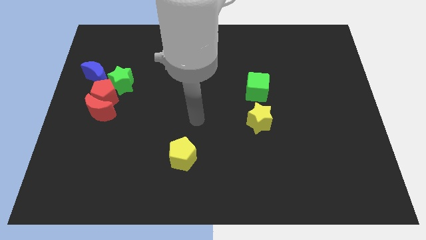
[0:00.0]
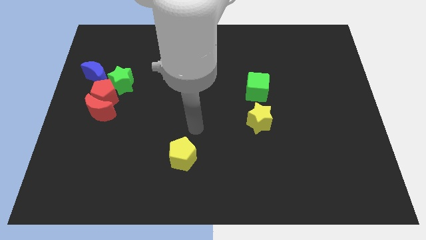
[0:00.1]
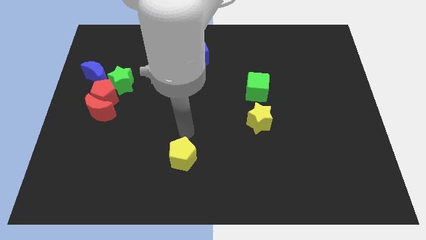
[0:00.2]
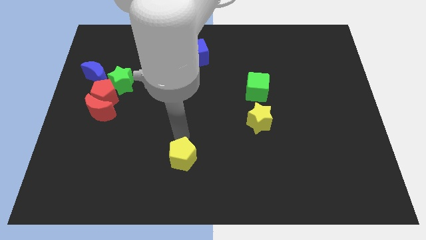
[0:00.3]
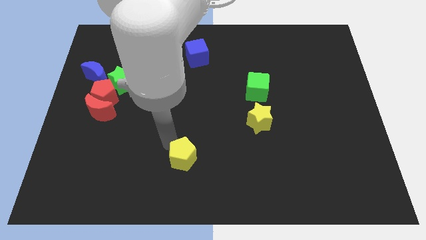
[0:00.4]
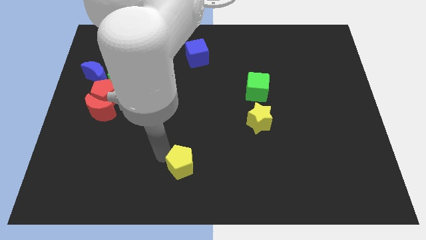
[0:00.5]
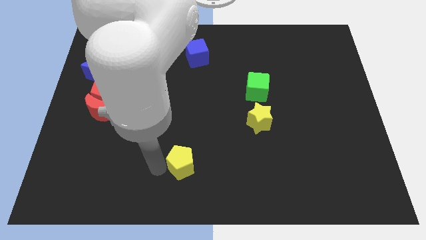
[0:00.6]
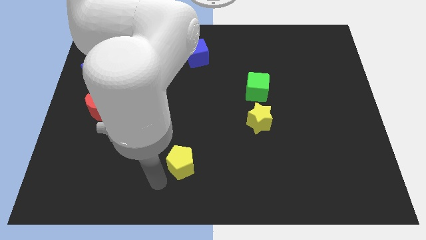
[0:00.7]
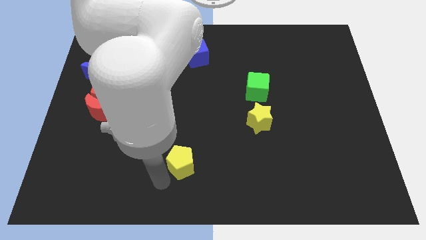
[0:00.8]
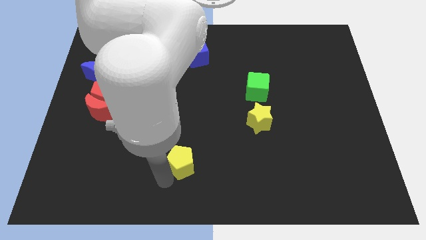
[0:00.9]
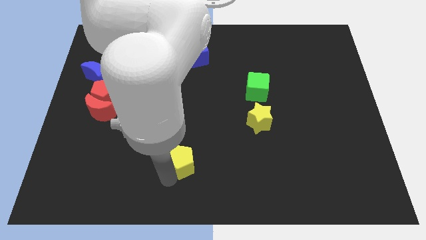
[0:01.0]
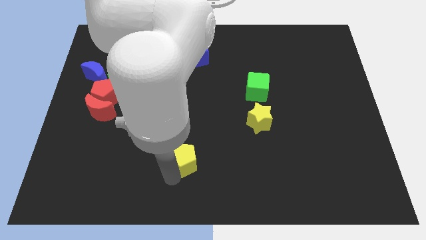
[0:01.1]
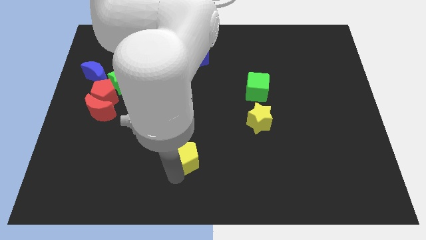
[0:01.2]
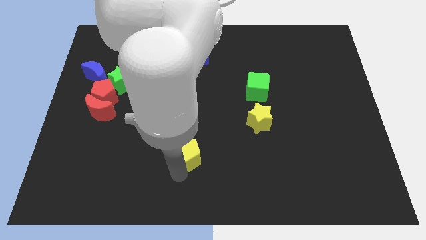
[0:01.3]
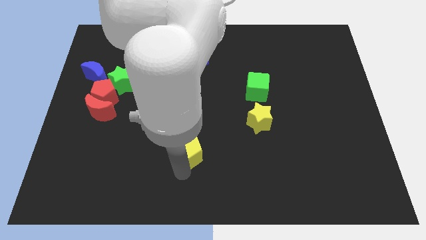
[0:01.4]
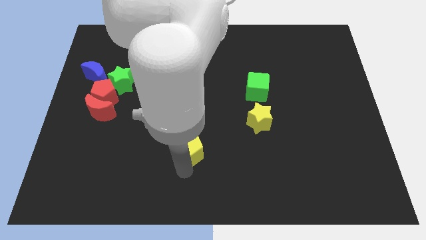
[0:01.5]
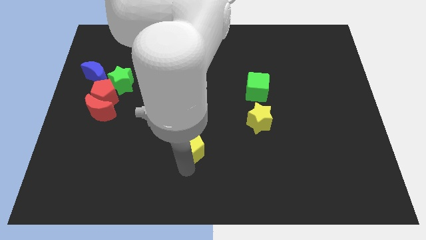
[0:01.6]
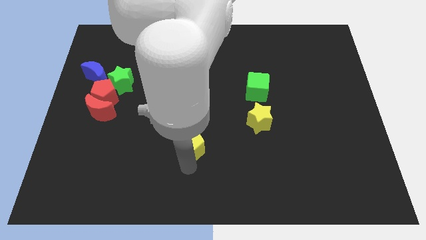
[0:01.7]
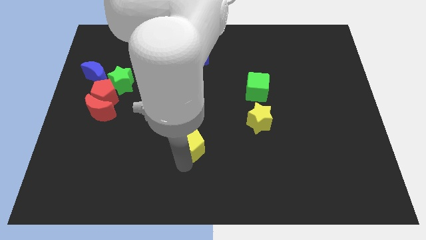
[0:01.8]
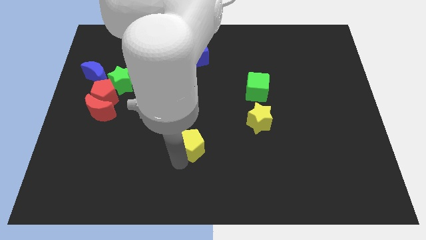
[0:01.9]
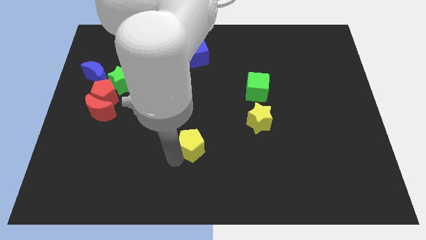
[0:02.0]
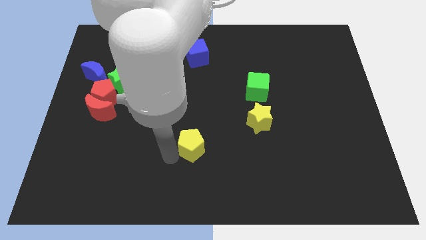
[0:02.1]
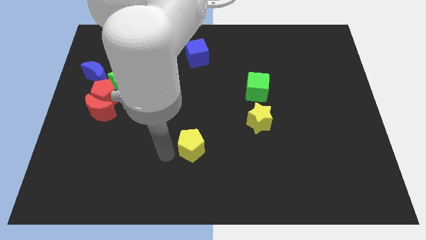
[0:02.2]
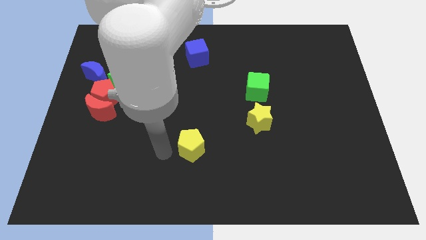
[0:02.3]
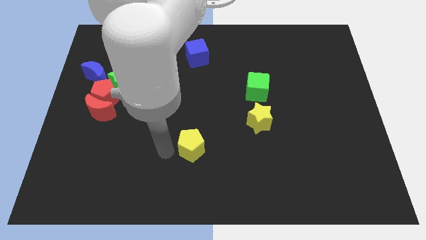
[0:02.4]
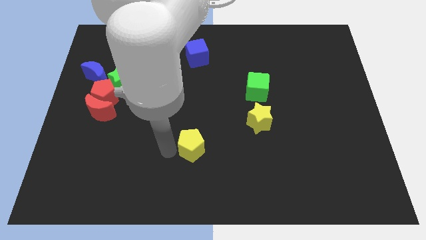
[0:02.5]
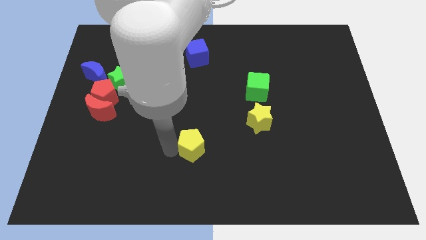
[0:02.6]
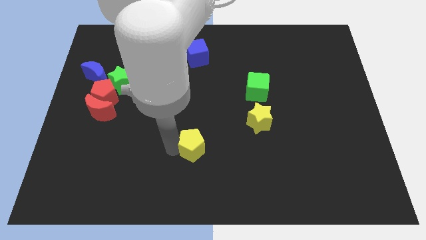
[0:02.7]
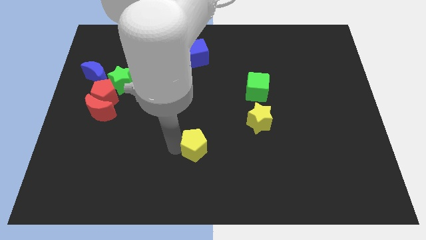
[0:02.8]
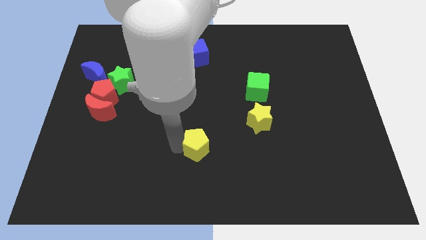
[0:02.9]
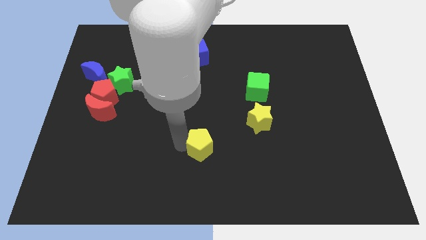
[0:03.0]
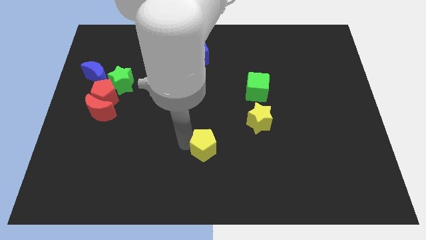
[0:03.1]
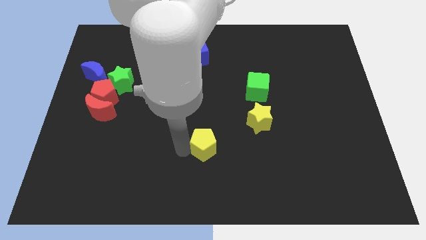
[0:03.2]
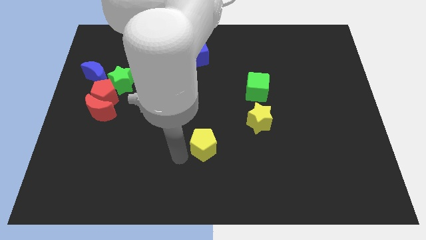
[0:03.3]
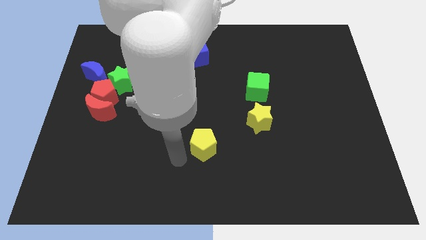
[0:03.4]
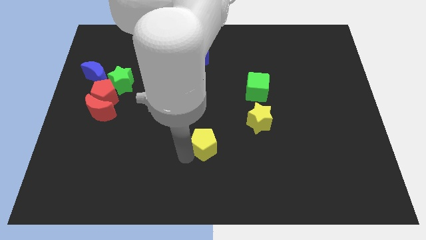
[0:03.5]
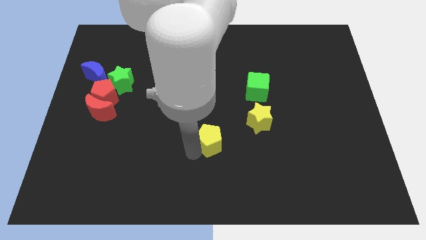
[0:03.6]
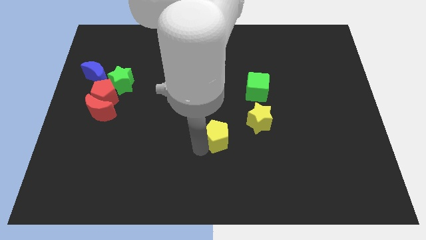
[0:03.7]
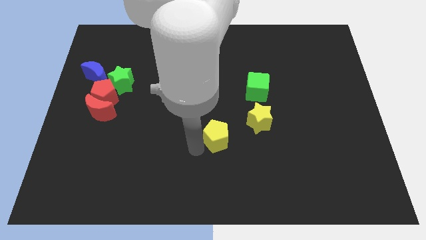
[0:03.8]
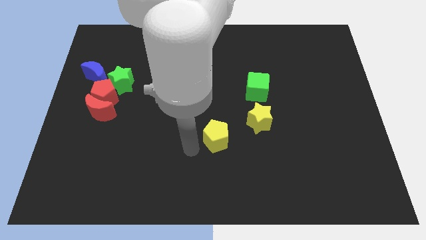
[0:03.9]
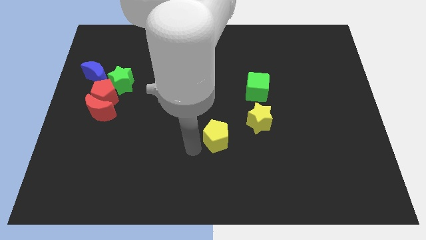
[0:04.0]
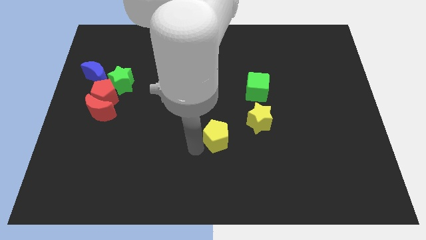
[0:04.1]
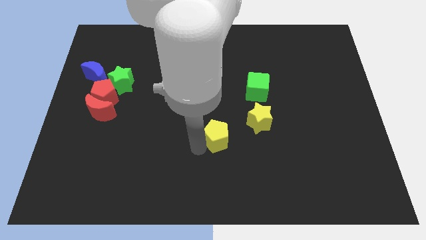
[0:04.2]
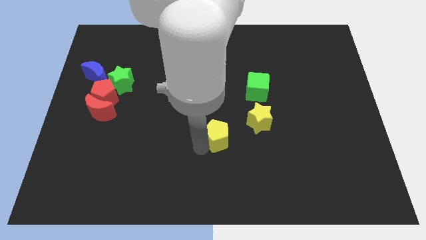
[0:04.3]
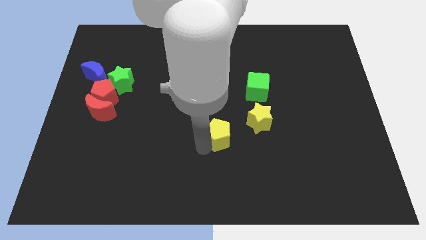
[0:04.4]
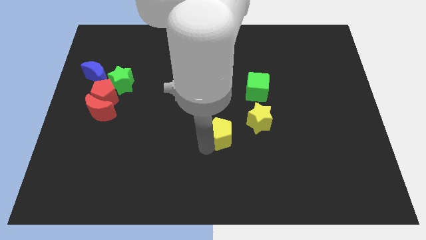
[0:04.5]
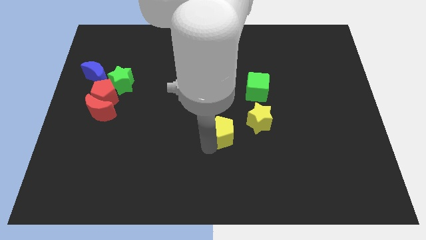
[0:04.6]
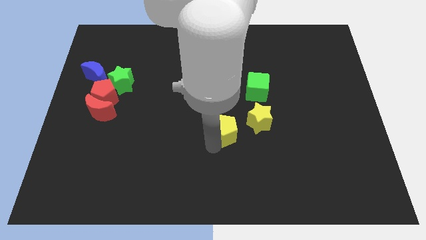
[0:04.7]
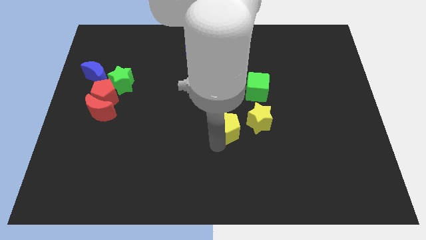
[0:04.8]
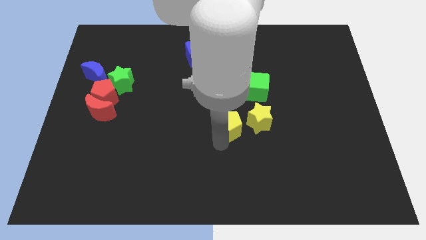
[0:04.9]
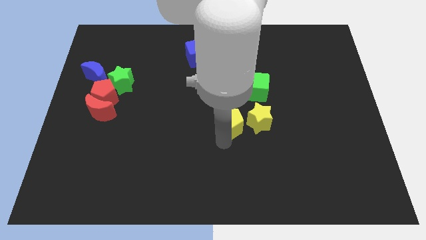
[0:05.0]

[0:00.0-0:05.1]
push the yellow pentagon close to the yellow star

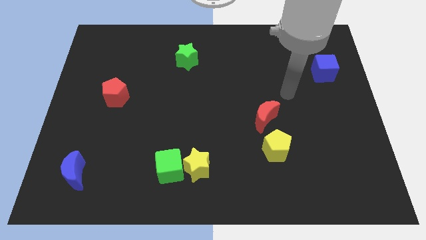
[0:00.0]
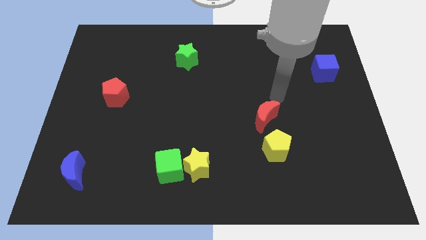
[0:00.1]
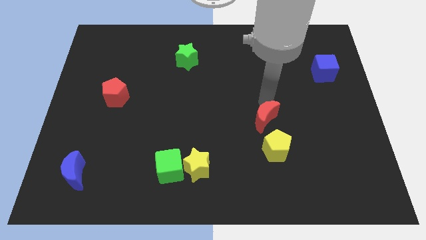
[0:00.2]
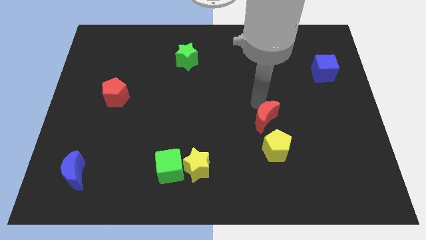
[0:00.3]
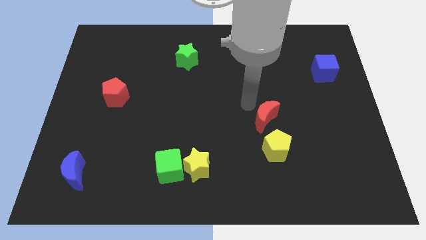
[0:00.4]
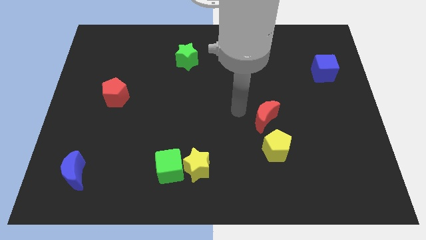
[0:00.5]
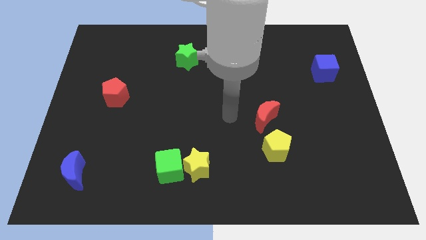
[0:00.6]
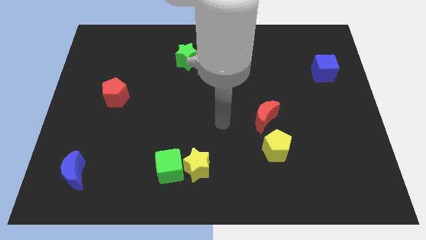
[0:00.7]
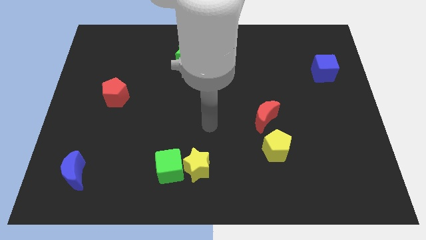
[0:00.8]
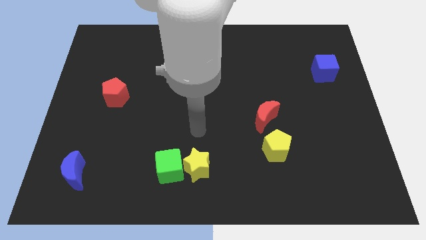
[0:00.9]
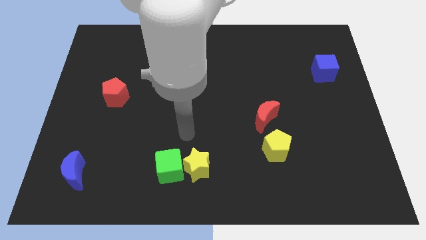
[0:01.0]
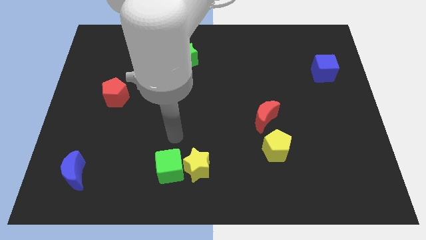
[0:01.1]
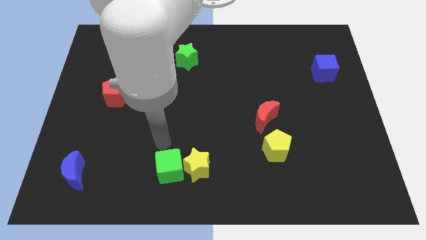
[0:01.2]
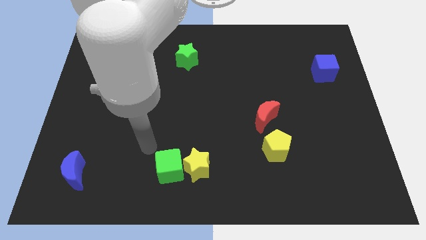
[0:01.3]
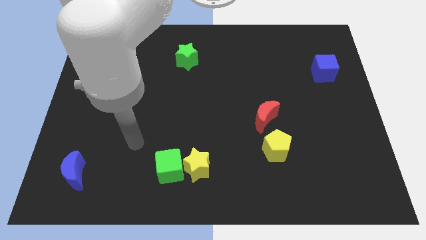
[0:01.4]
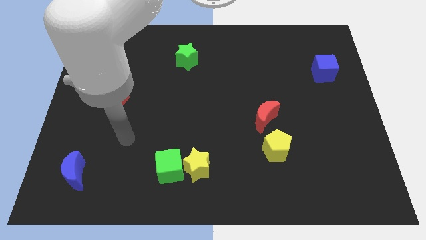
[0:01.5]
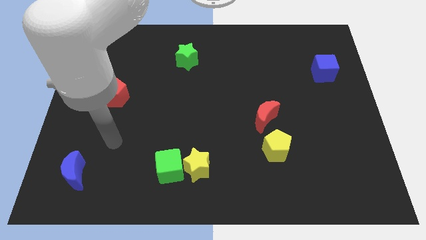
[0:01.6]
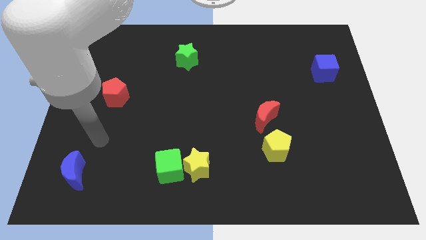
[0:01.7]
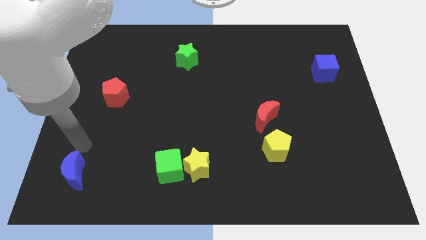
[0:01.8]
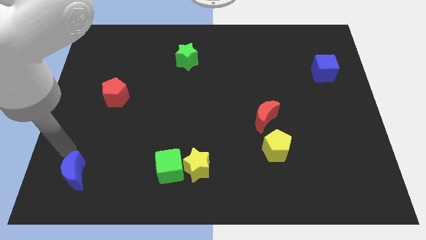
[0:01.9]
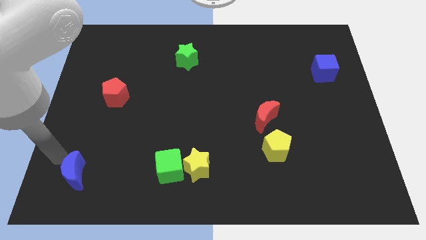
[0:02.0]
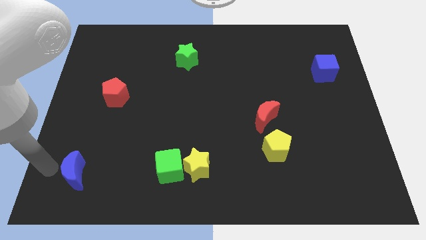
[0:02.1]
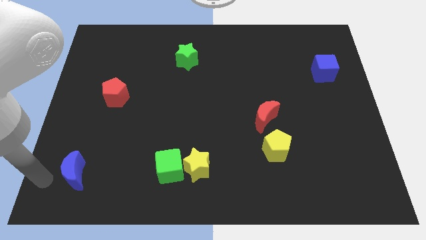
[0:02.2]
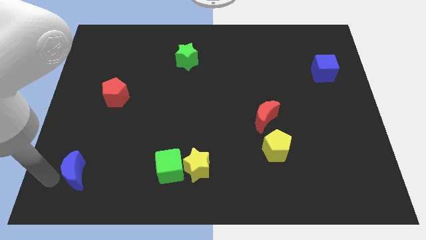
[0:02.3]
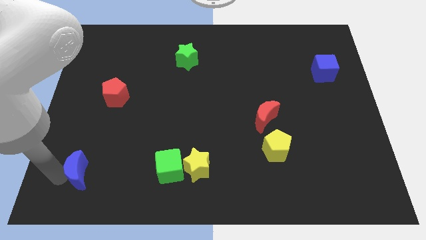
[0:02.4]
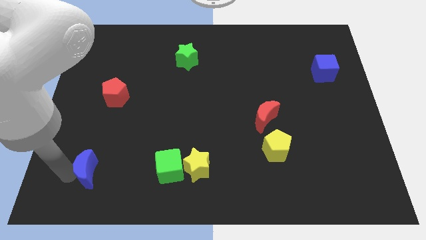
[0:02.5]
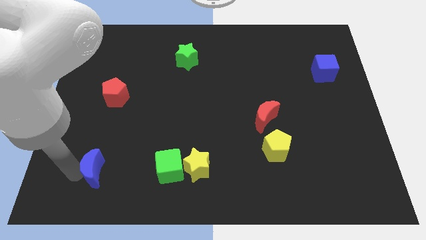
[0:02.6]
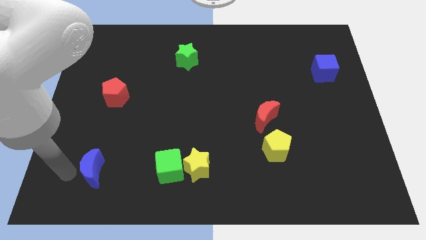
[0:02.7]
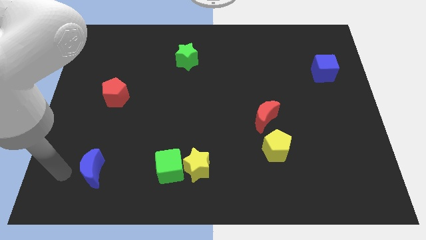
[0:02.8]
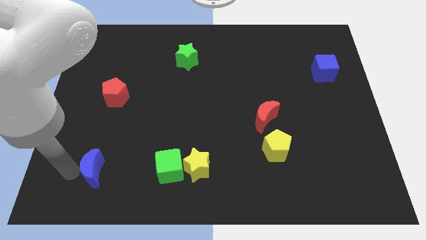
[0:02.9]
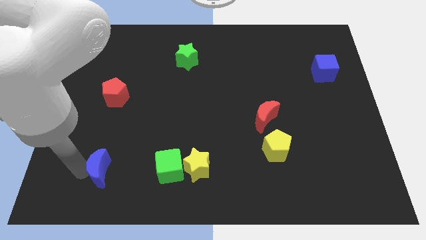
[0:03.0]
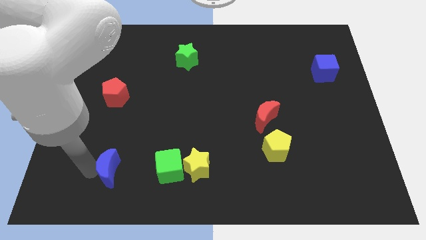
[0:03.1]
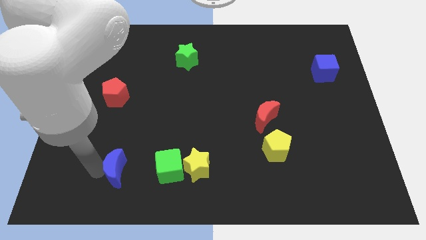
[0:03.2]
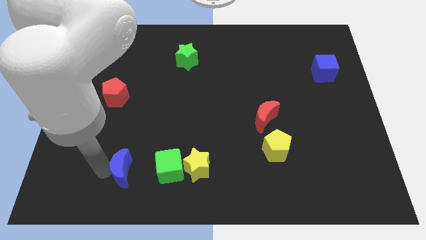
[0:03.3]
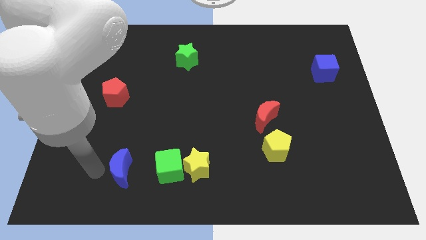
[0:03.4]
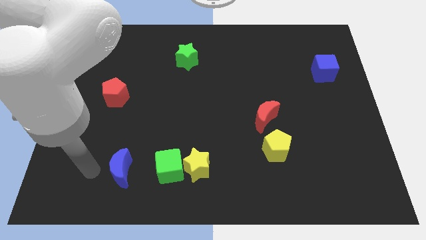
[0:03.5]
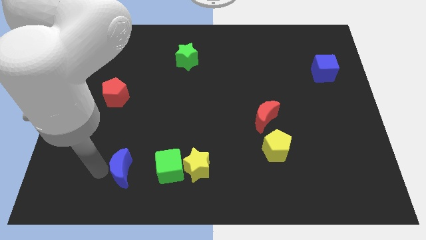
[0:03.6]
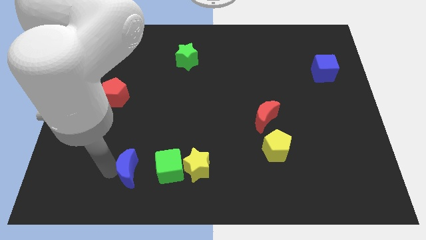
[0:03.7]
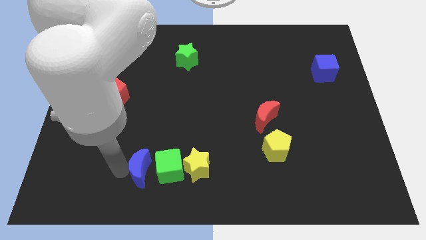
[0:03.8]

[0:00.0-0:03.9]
slide the blue moon next to the green cube
